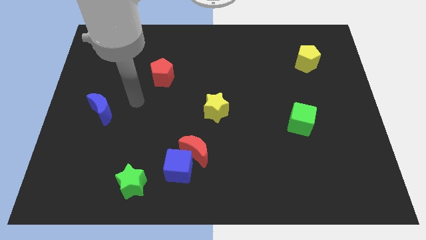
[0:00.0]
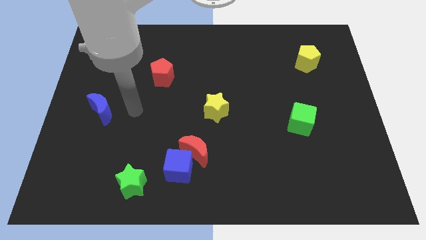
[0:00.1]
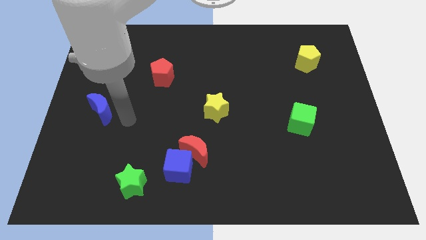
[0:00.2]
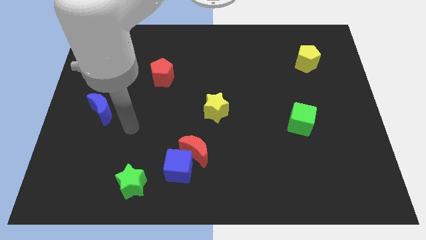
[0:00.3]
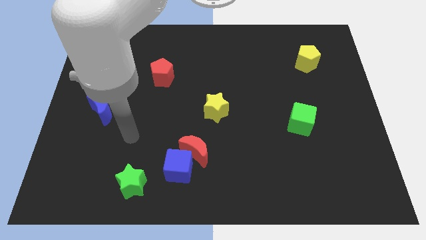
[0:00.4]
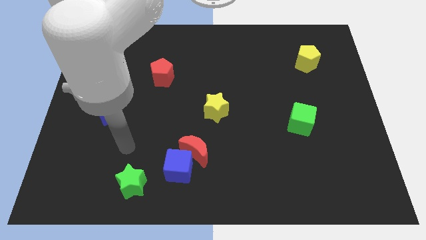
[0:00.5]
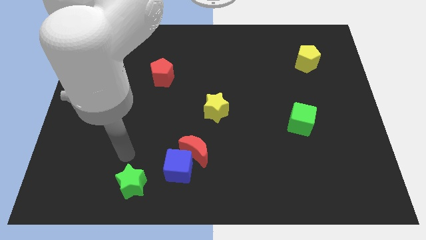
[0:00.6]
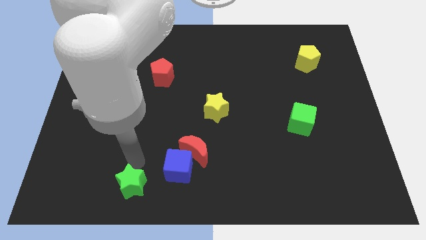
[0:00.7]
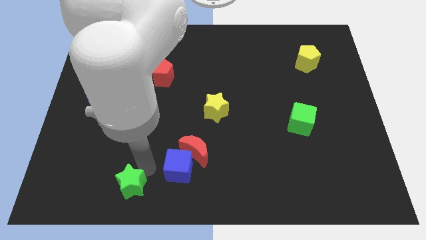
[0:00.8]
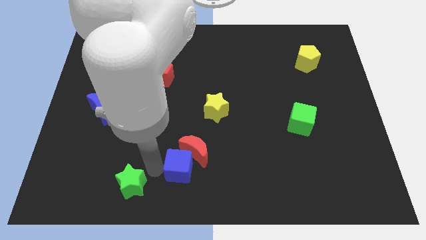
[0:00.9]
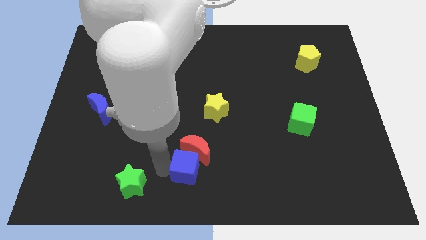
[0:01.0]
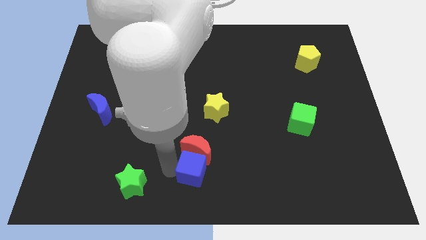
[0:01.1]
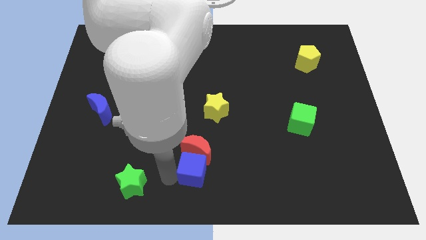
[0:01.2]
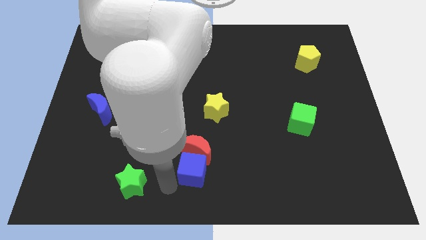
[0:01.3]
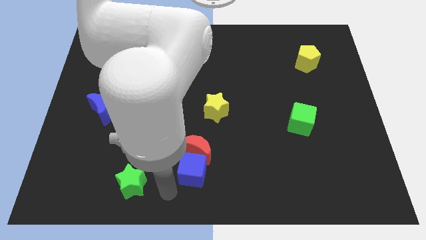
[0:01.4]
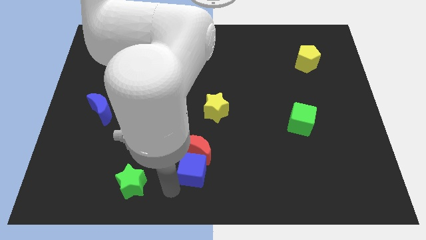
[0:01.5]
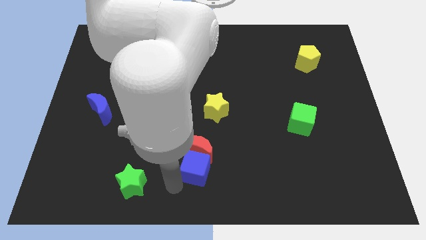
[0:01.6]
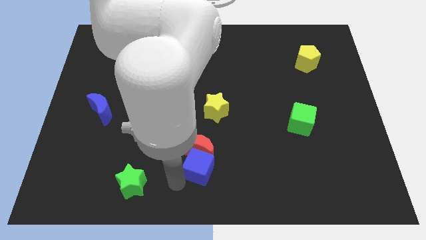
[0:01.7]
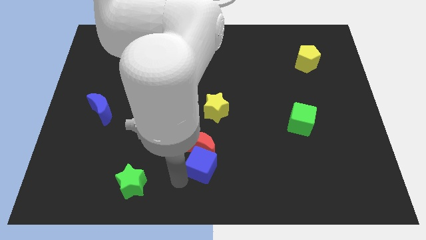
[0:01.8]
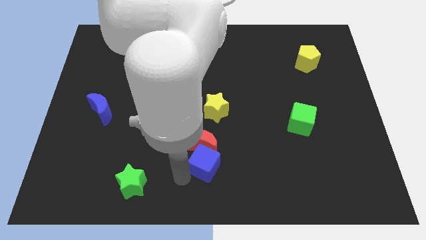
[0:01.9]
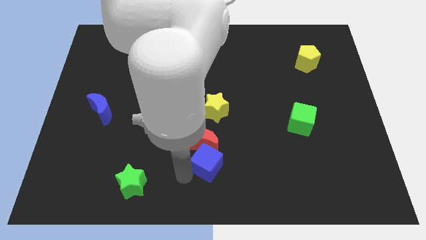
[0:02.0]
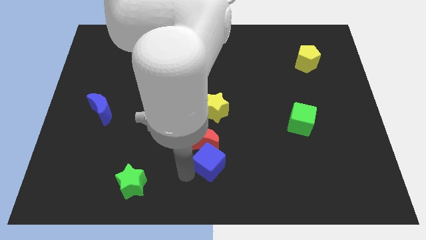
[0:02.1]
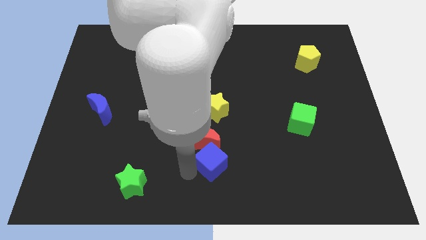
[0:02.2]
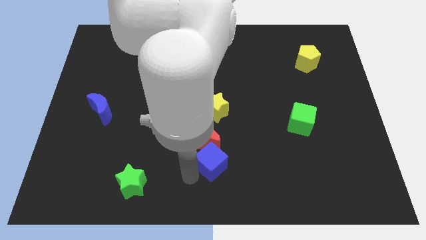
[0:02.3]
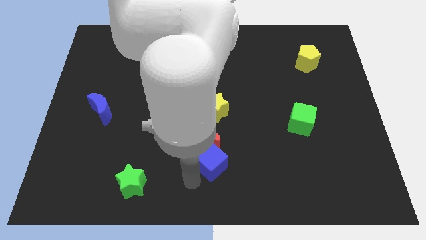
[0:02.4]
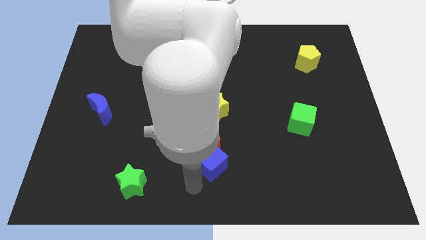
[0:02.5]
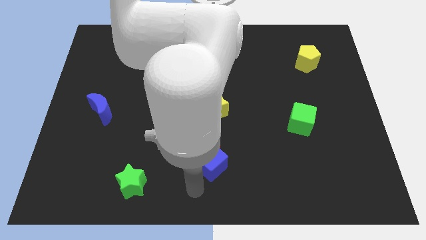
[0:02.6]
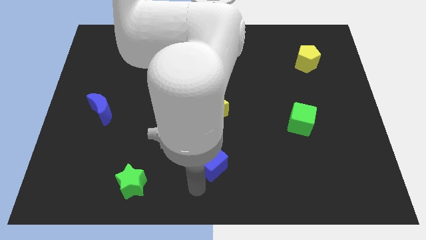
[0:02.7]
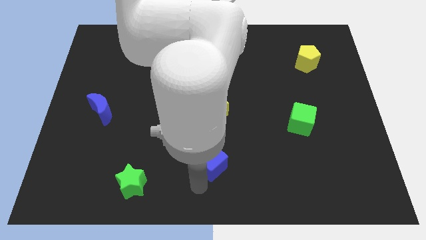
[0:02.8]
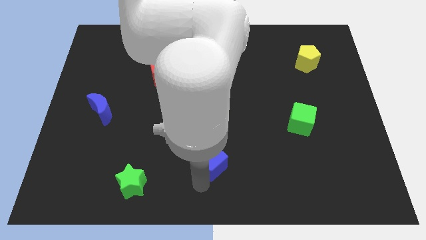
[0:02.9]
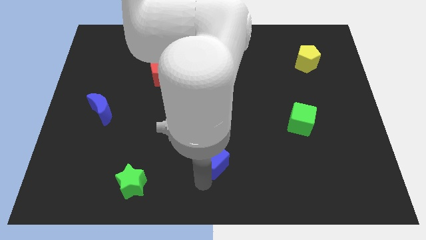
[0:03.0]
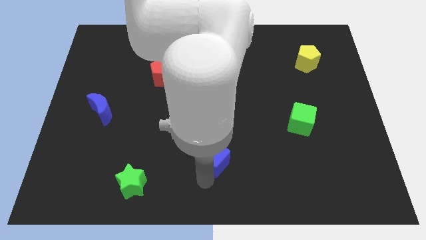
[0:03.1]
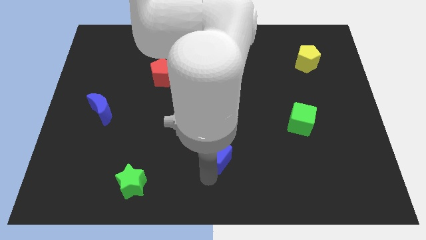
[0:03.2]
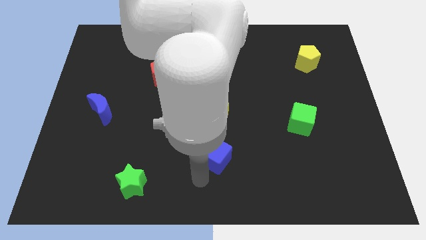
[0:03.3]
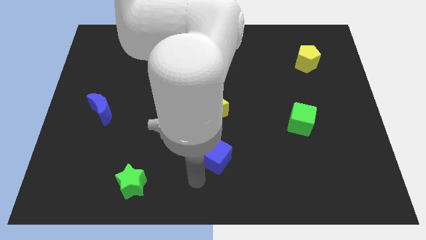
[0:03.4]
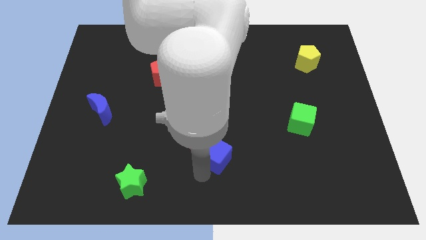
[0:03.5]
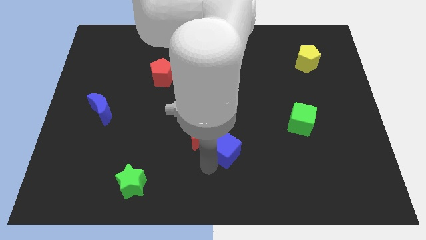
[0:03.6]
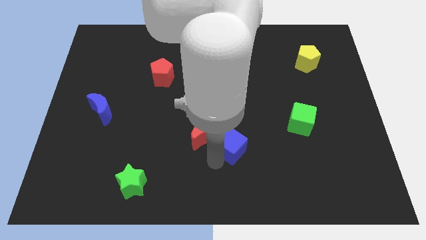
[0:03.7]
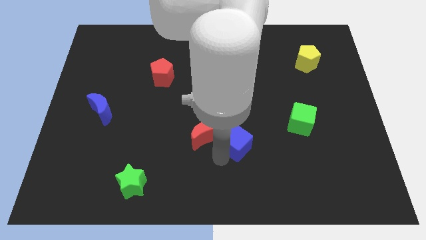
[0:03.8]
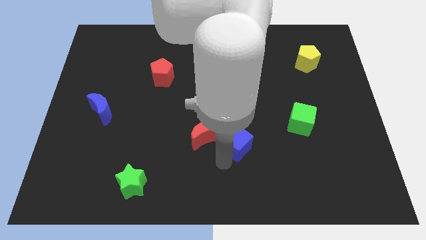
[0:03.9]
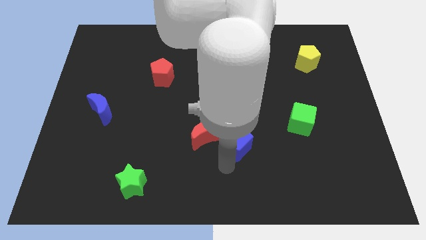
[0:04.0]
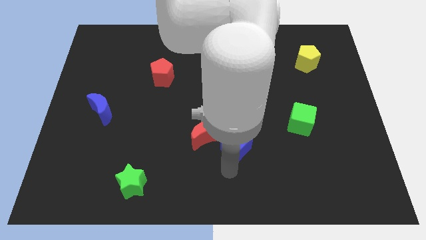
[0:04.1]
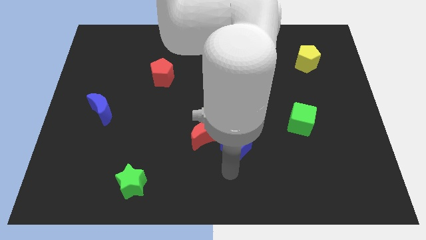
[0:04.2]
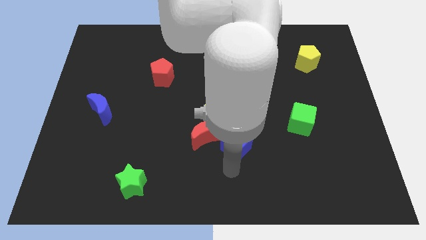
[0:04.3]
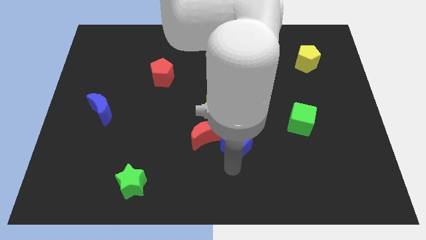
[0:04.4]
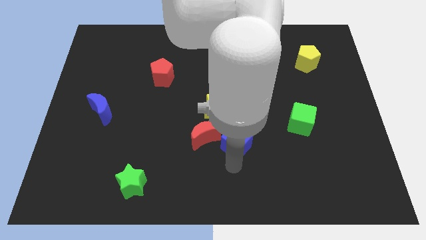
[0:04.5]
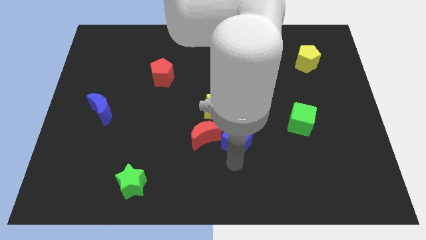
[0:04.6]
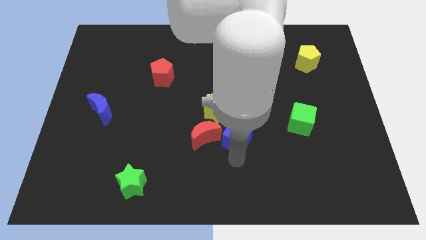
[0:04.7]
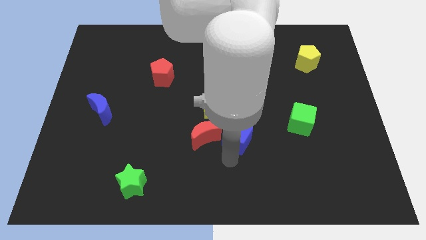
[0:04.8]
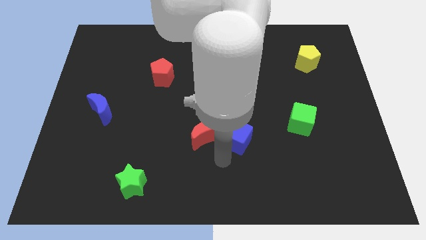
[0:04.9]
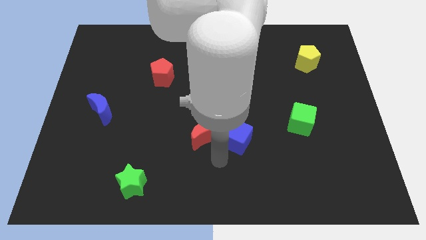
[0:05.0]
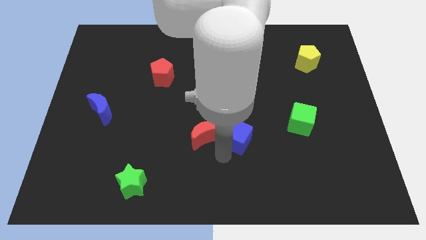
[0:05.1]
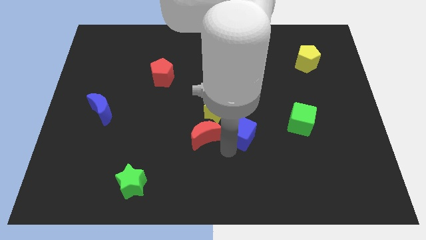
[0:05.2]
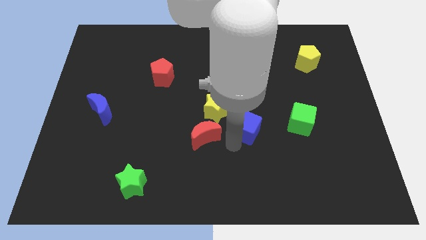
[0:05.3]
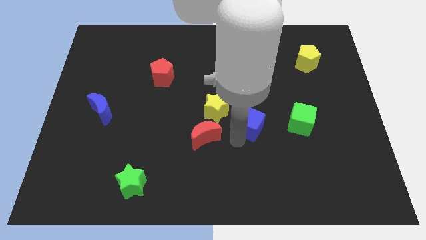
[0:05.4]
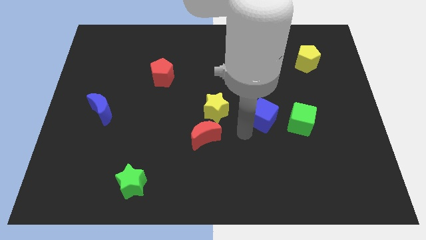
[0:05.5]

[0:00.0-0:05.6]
move the blue cube upwards and to the right diagonally

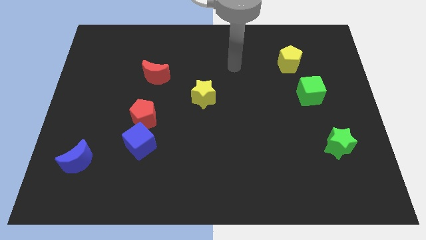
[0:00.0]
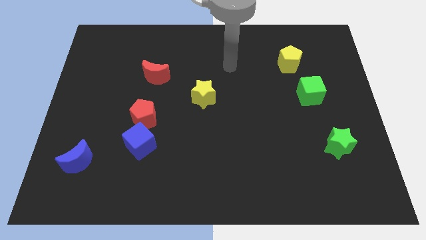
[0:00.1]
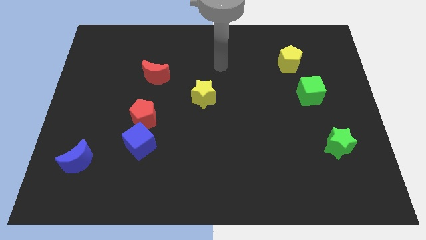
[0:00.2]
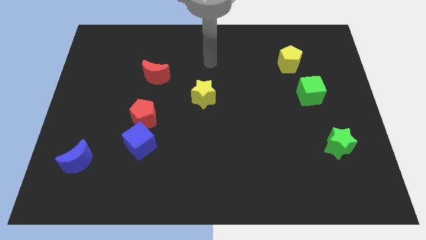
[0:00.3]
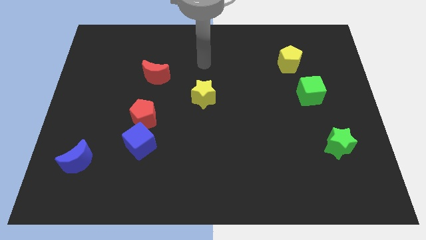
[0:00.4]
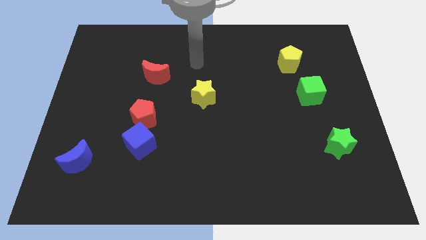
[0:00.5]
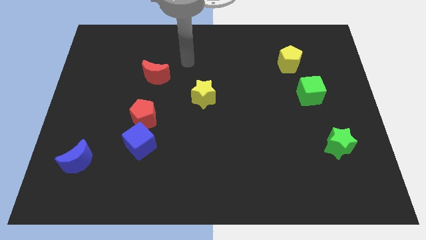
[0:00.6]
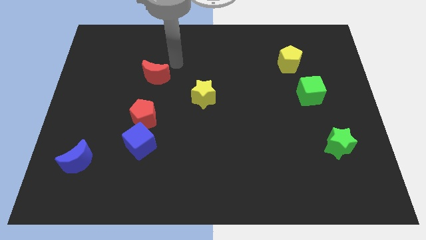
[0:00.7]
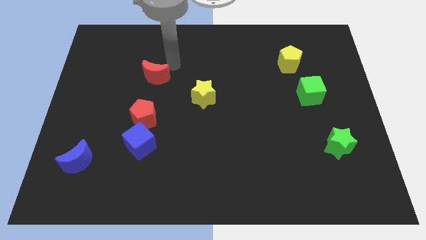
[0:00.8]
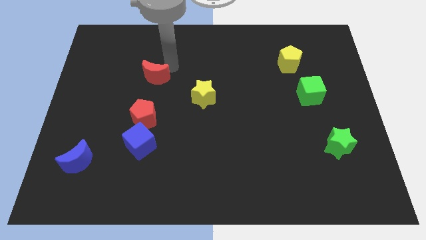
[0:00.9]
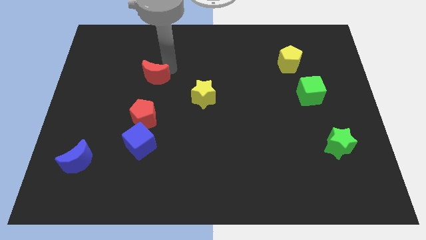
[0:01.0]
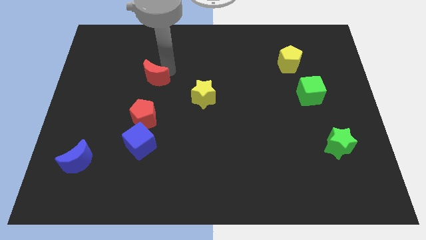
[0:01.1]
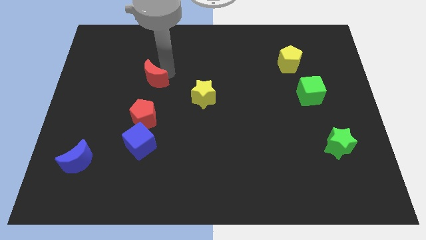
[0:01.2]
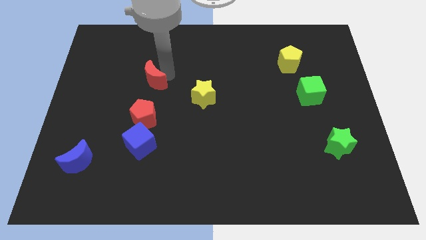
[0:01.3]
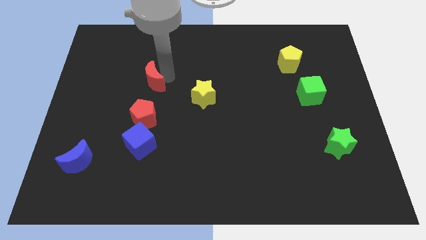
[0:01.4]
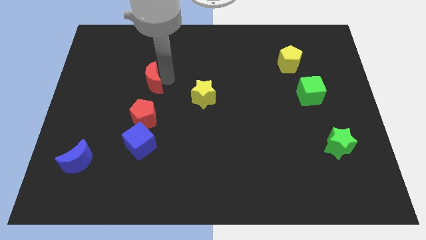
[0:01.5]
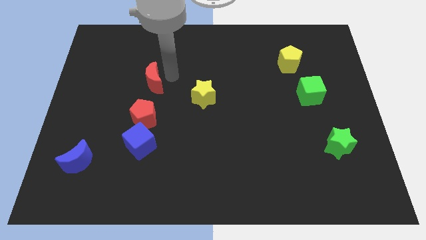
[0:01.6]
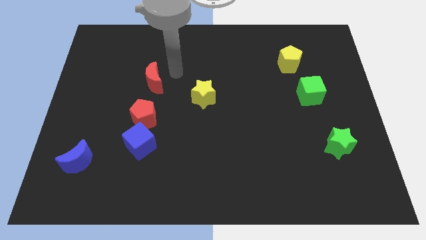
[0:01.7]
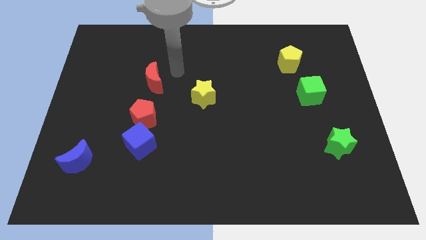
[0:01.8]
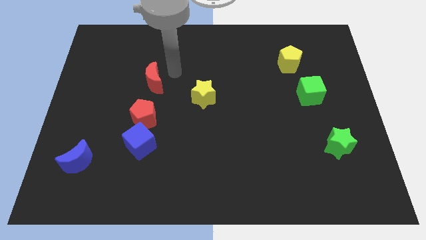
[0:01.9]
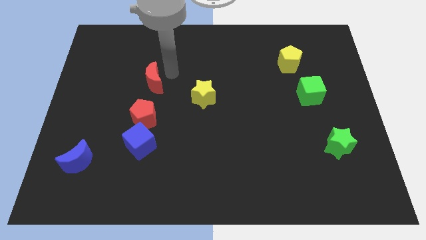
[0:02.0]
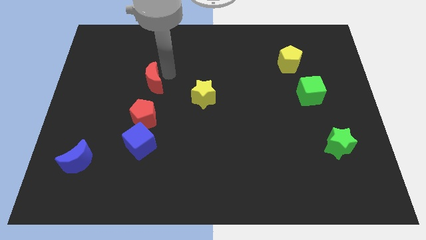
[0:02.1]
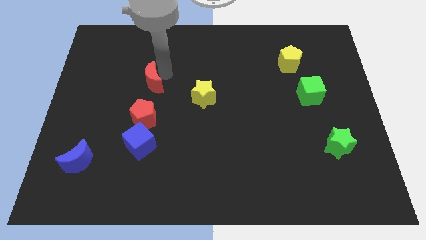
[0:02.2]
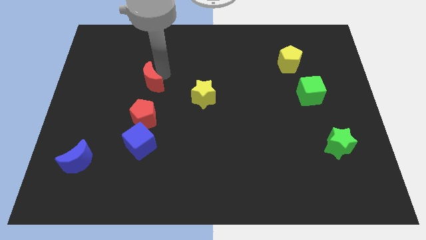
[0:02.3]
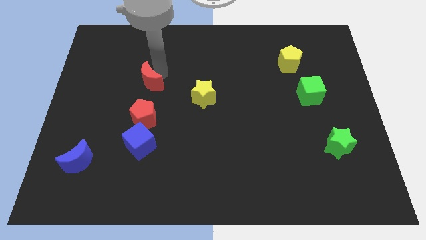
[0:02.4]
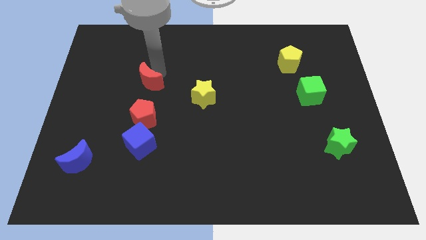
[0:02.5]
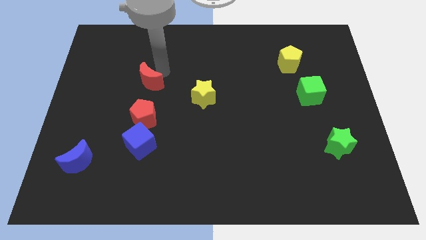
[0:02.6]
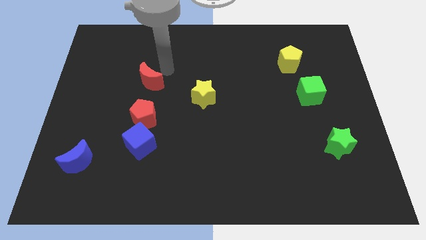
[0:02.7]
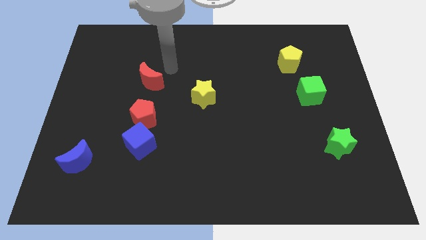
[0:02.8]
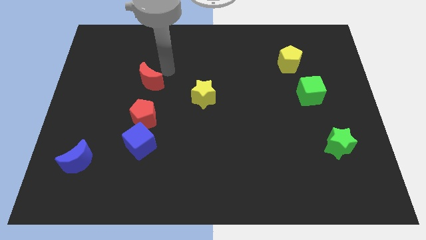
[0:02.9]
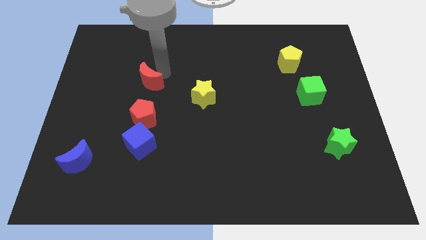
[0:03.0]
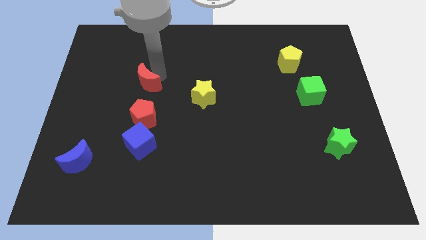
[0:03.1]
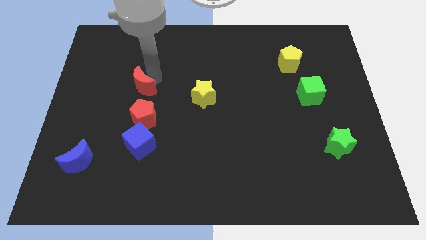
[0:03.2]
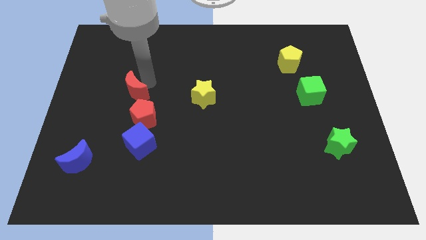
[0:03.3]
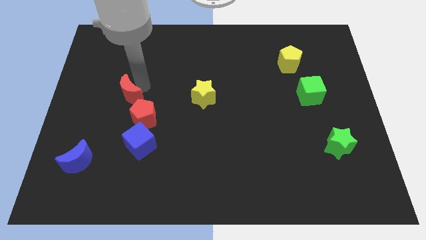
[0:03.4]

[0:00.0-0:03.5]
move the red moon downwards and left a little
